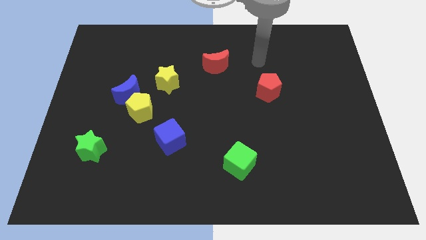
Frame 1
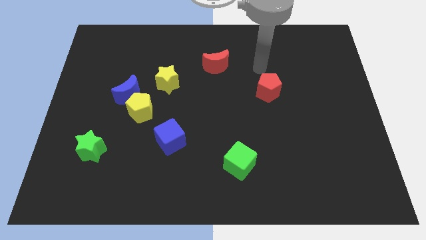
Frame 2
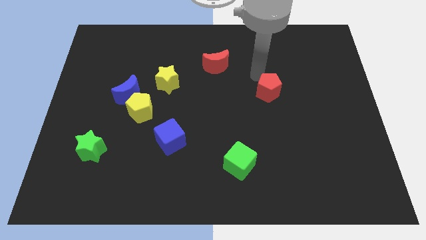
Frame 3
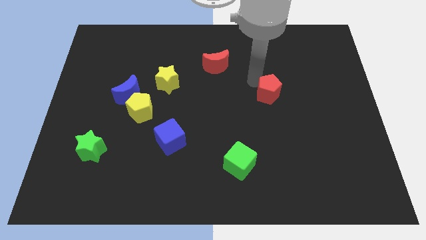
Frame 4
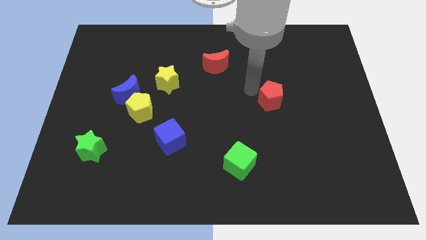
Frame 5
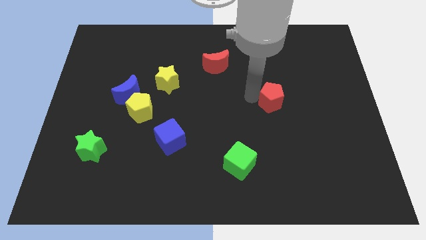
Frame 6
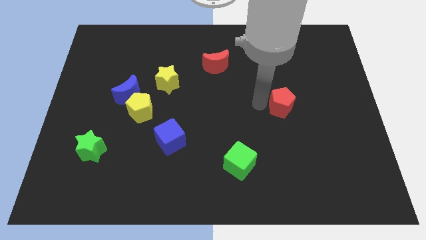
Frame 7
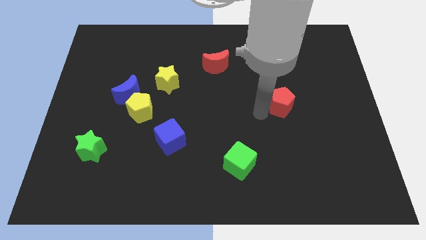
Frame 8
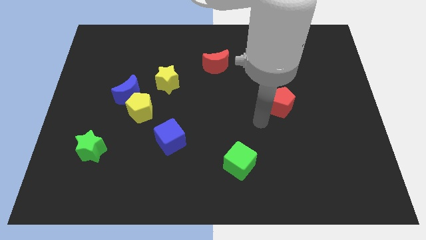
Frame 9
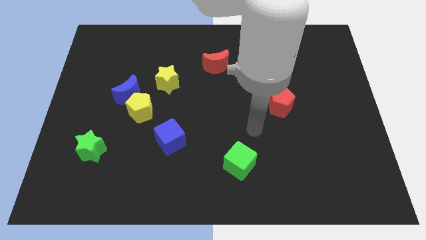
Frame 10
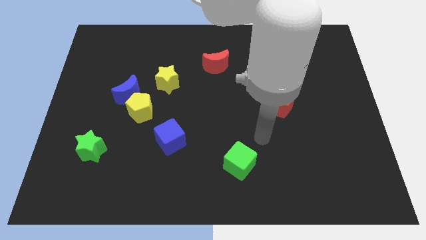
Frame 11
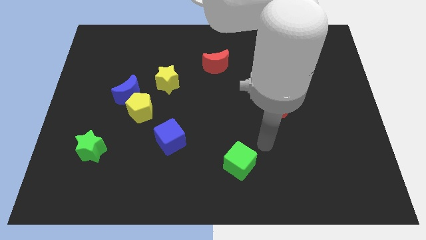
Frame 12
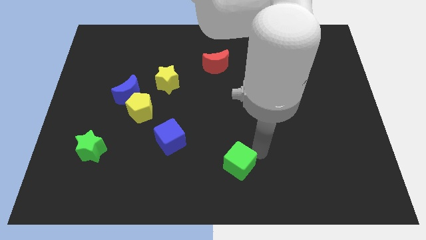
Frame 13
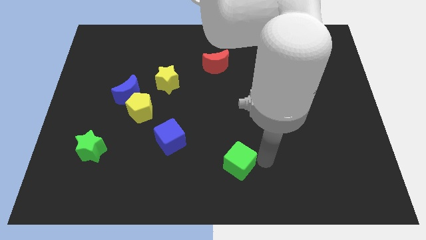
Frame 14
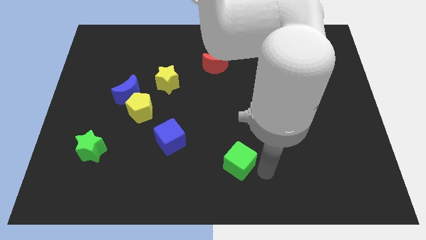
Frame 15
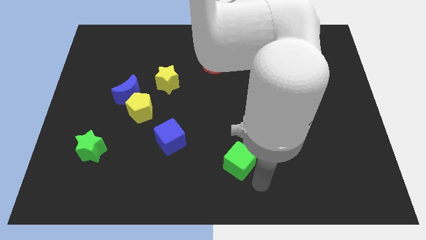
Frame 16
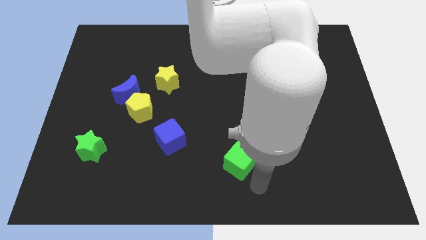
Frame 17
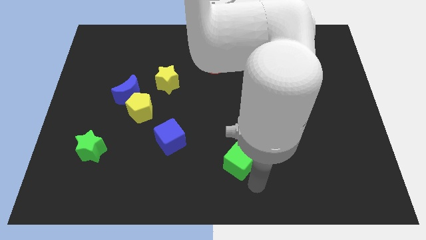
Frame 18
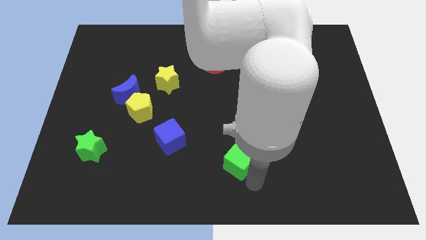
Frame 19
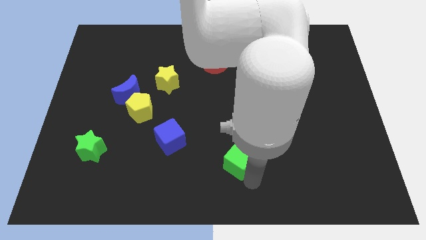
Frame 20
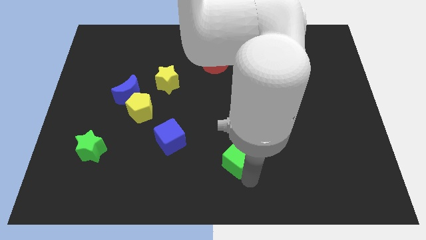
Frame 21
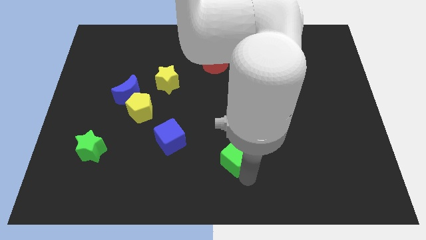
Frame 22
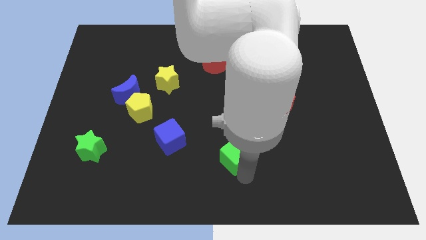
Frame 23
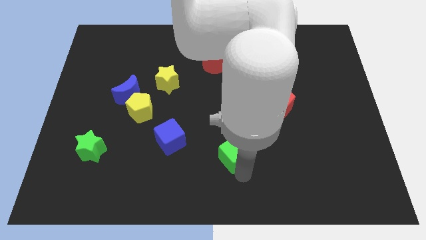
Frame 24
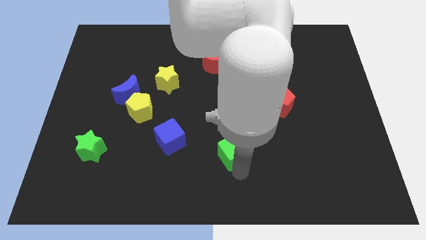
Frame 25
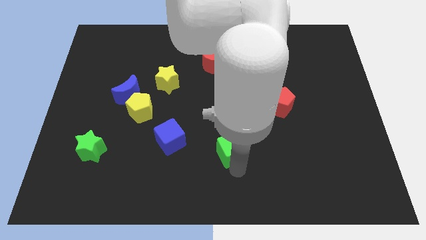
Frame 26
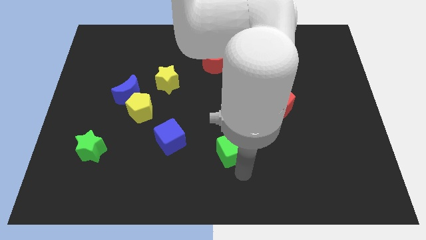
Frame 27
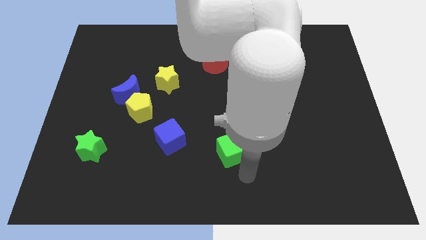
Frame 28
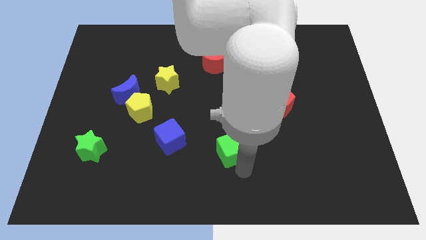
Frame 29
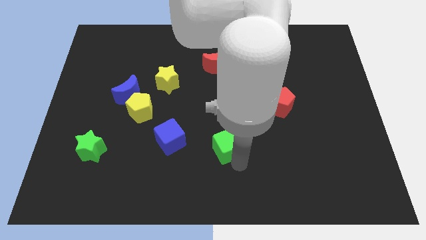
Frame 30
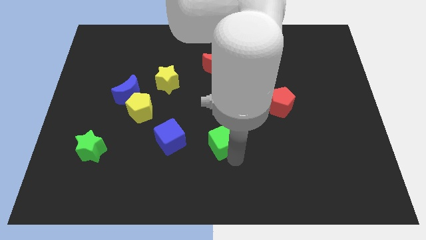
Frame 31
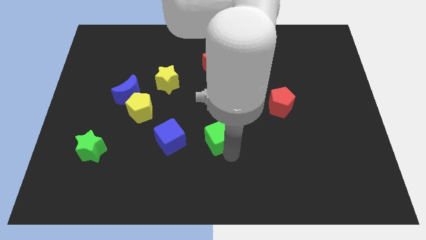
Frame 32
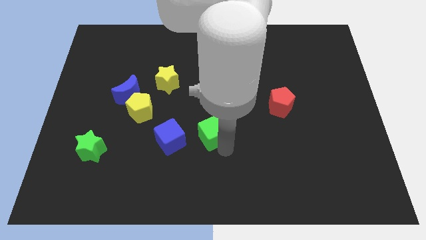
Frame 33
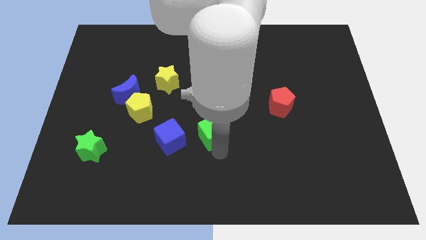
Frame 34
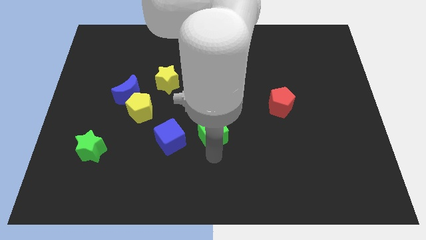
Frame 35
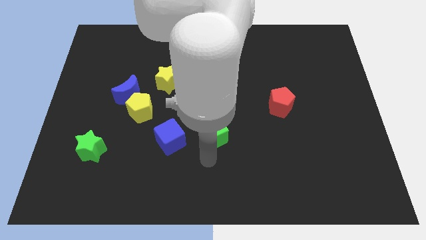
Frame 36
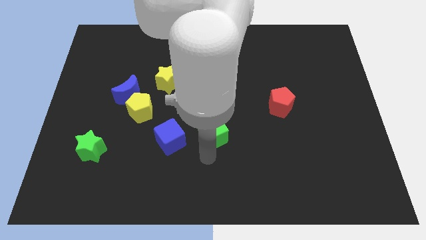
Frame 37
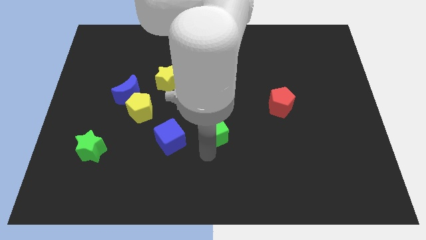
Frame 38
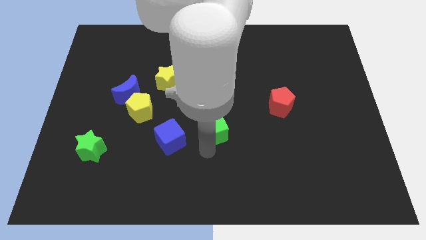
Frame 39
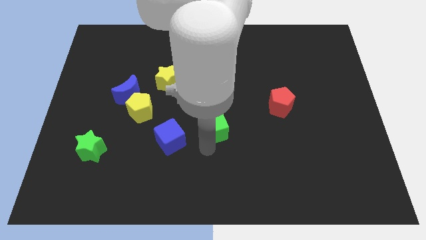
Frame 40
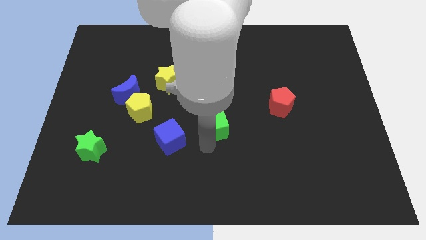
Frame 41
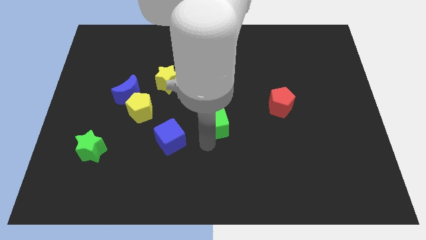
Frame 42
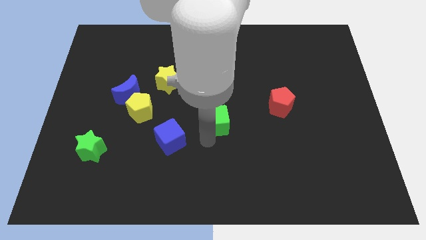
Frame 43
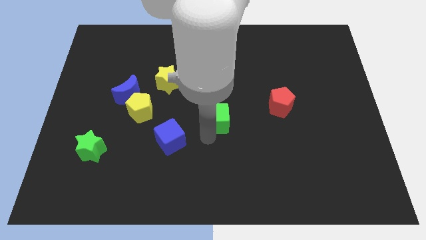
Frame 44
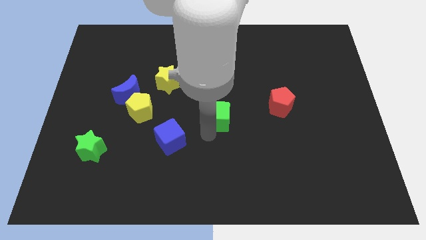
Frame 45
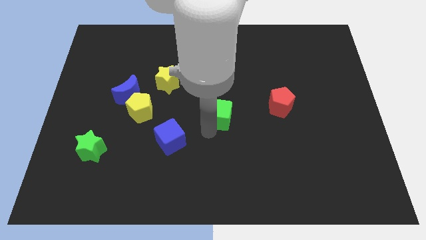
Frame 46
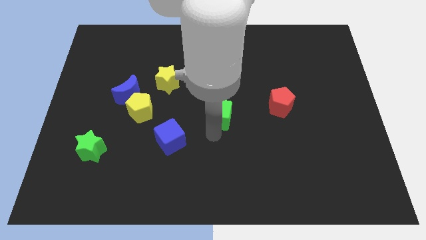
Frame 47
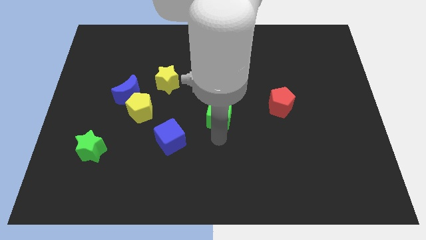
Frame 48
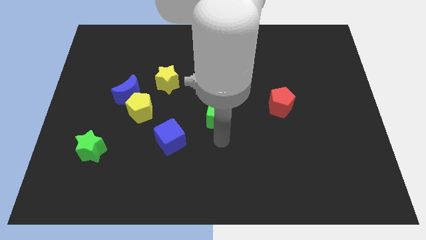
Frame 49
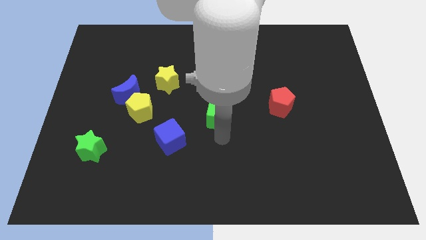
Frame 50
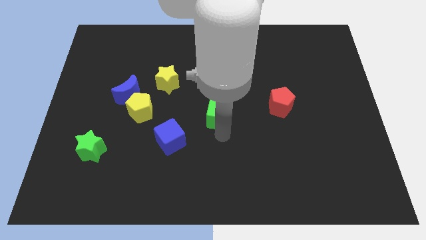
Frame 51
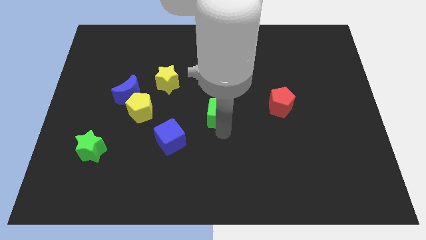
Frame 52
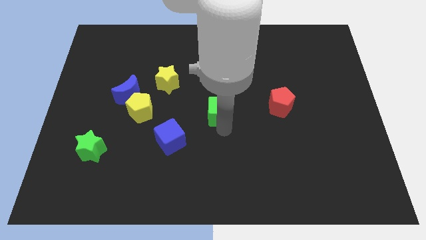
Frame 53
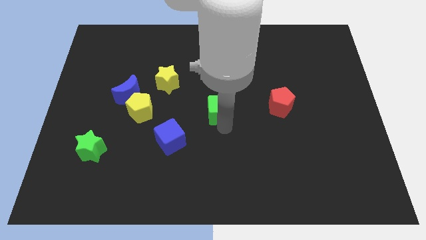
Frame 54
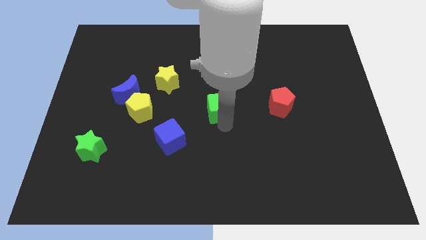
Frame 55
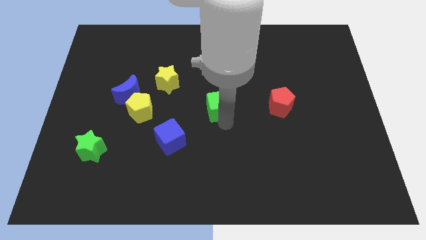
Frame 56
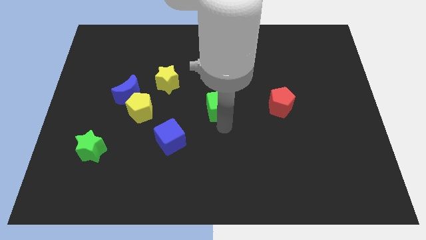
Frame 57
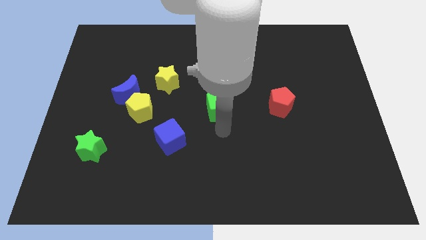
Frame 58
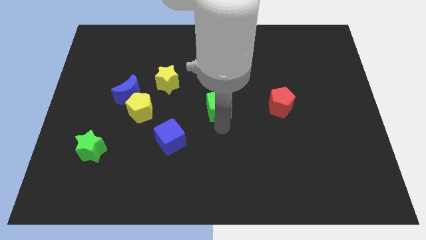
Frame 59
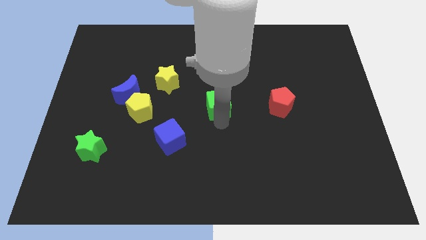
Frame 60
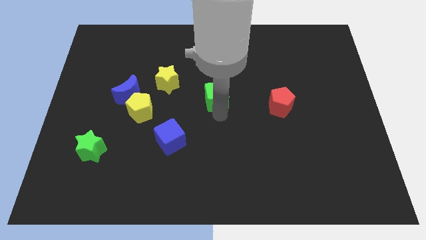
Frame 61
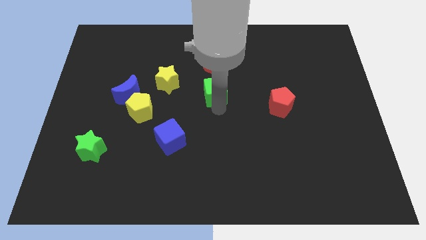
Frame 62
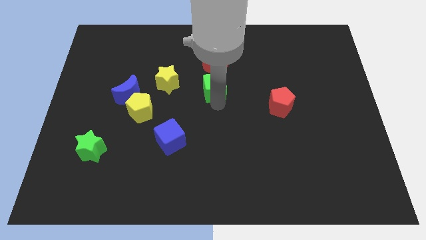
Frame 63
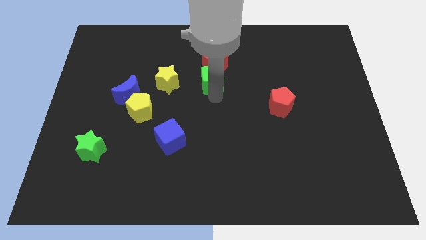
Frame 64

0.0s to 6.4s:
push the green cube next to the red moon

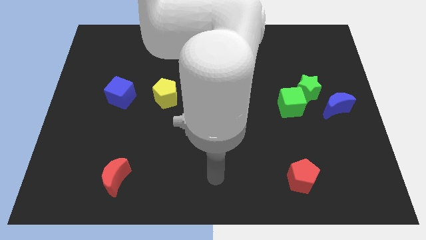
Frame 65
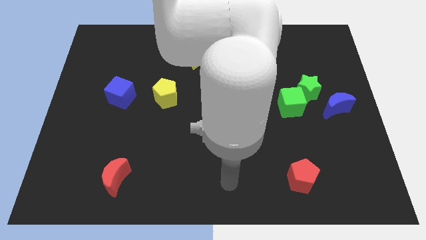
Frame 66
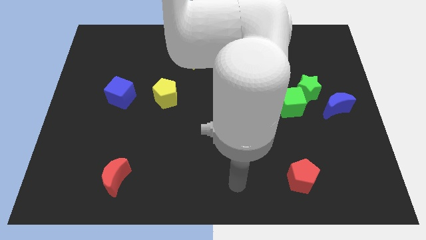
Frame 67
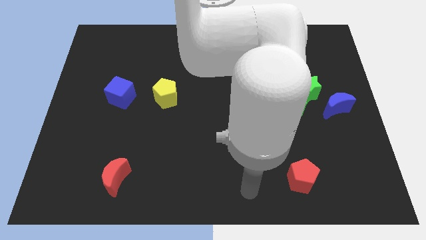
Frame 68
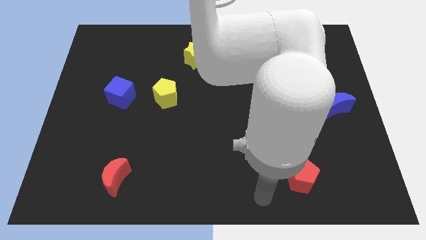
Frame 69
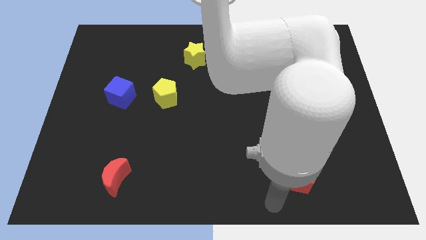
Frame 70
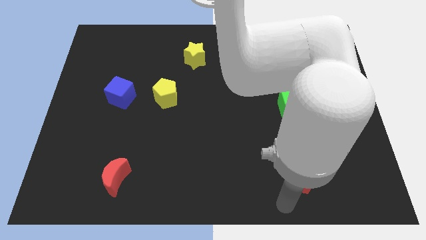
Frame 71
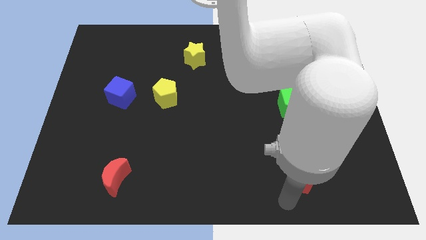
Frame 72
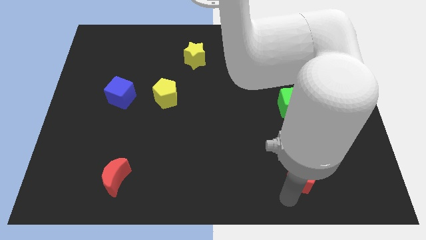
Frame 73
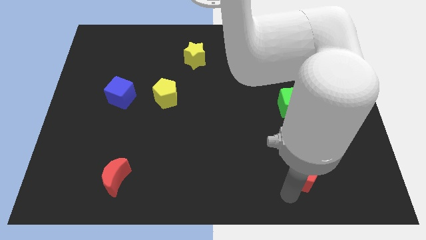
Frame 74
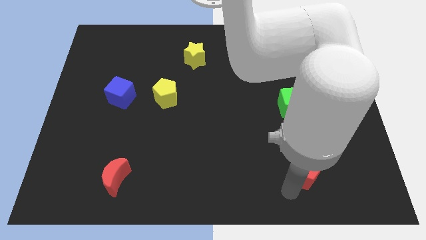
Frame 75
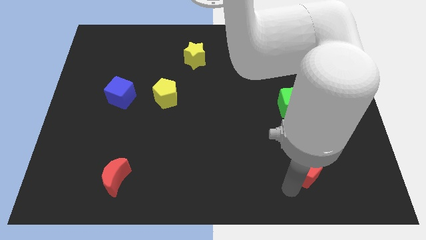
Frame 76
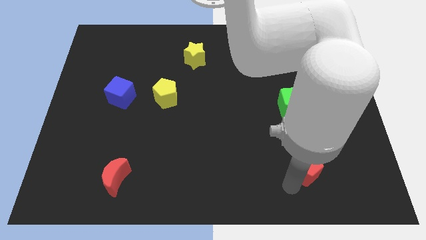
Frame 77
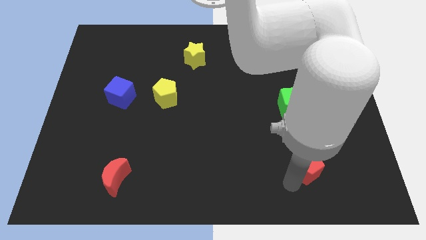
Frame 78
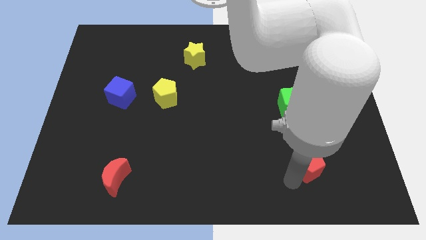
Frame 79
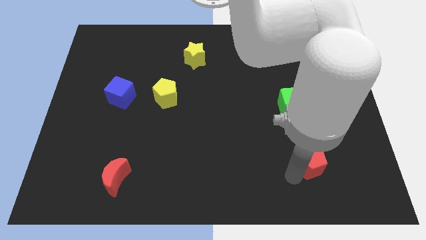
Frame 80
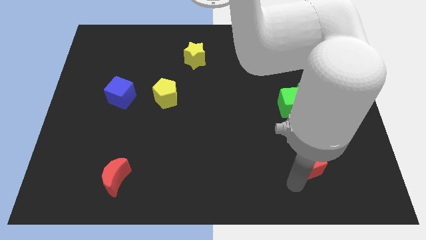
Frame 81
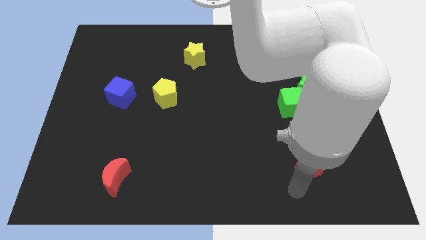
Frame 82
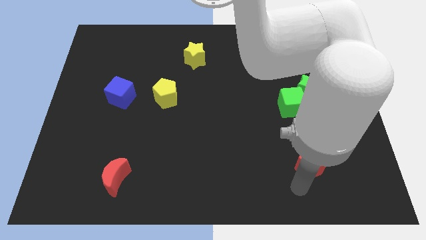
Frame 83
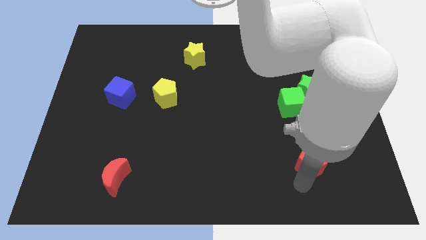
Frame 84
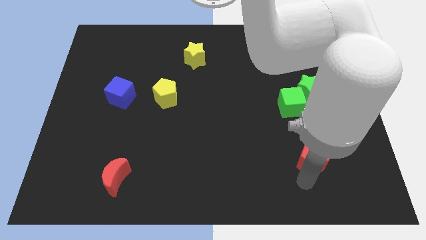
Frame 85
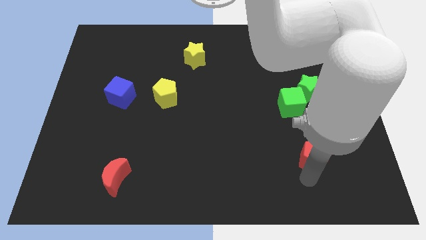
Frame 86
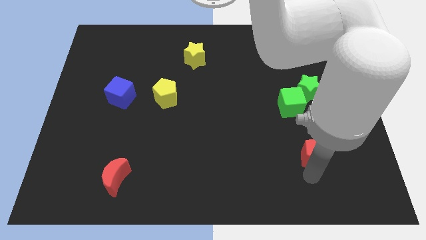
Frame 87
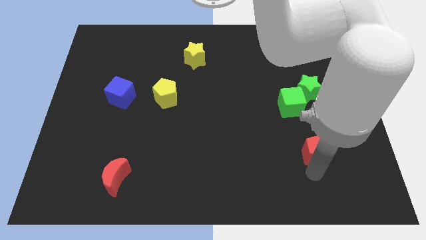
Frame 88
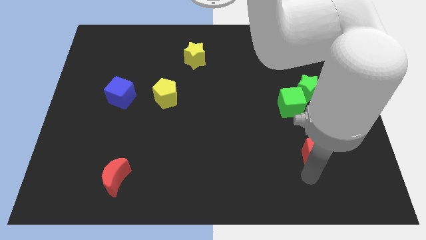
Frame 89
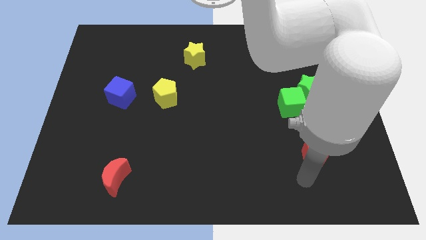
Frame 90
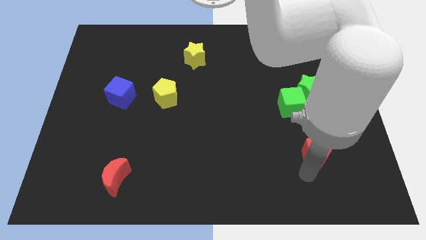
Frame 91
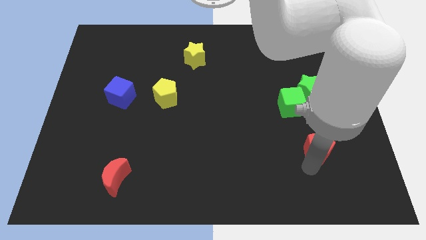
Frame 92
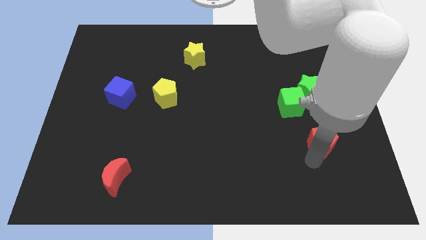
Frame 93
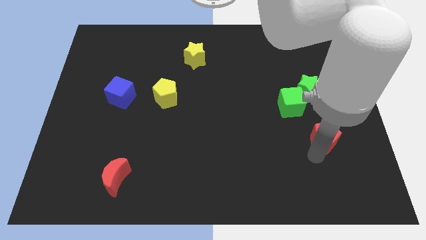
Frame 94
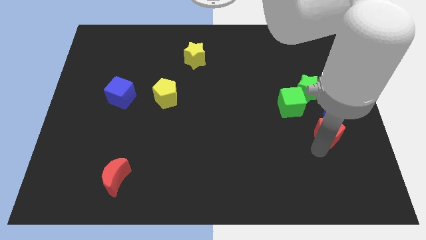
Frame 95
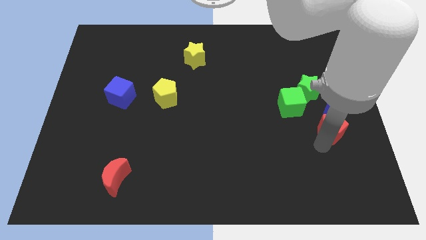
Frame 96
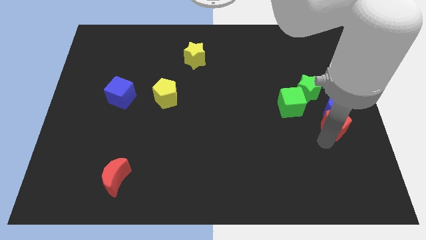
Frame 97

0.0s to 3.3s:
slide the red pentagon close to the blue moon
